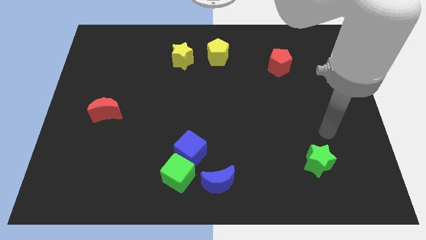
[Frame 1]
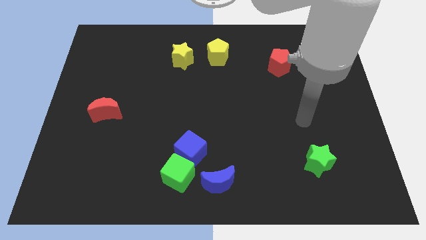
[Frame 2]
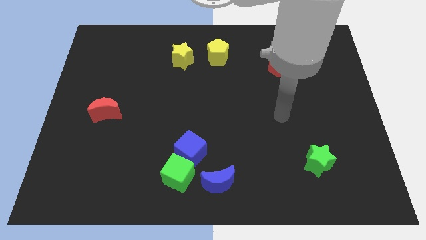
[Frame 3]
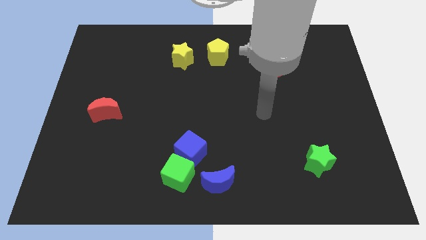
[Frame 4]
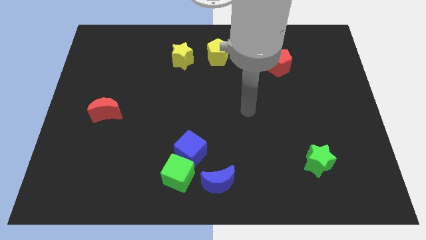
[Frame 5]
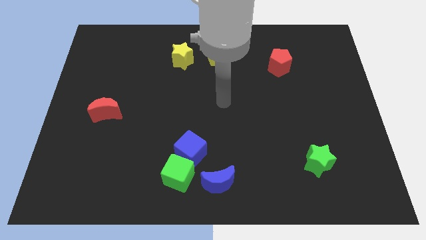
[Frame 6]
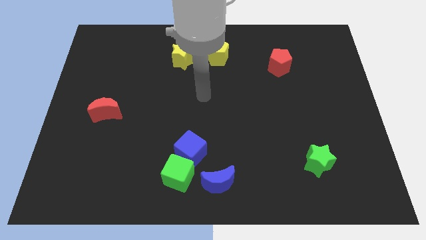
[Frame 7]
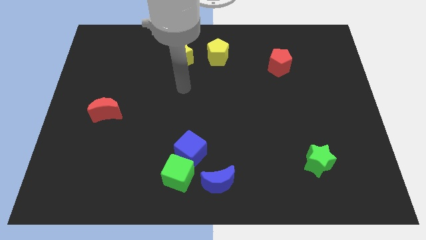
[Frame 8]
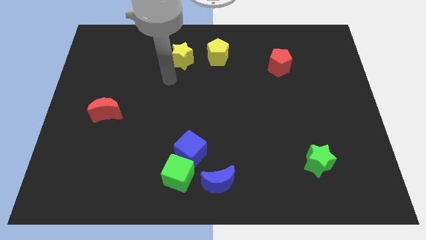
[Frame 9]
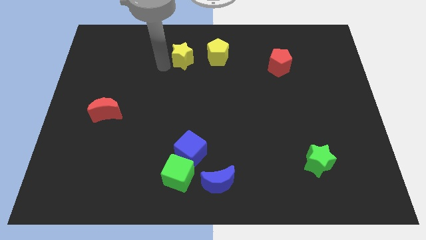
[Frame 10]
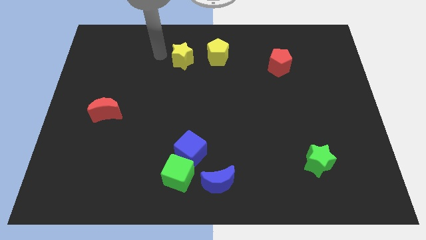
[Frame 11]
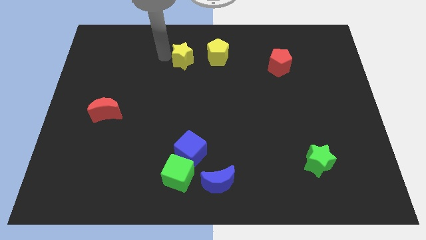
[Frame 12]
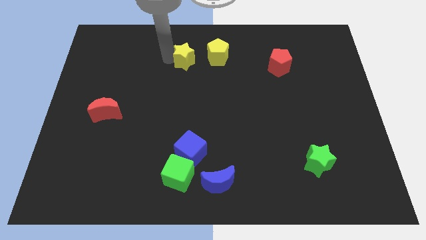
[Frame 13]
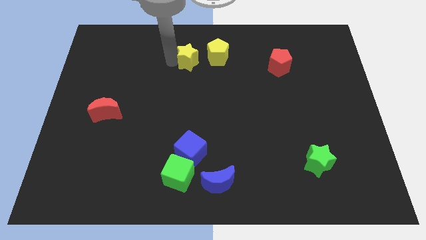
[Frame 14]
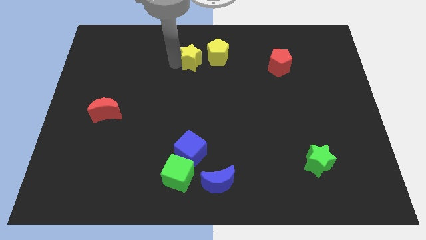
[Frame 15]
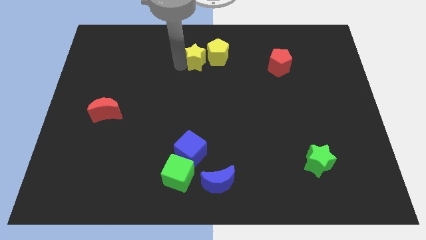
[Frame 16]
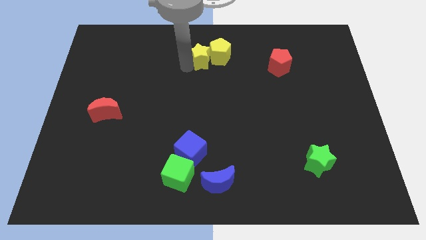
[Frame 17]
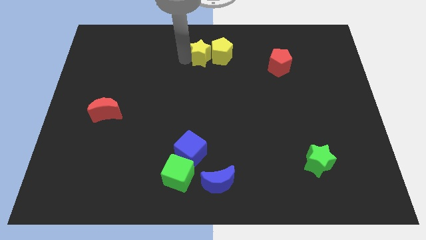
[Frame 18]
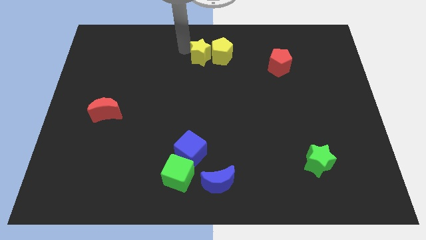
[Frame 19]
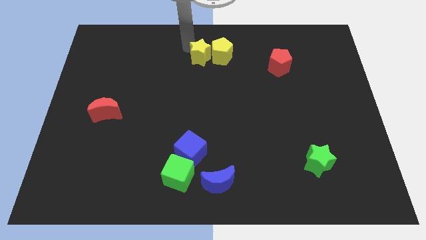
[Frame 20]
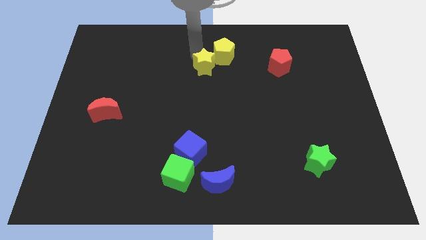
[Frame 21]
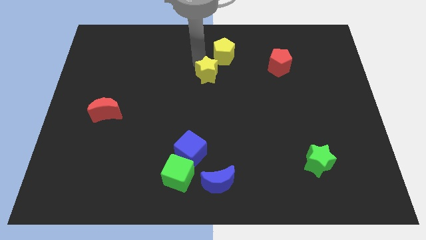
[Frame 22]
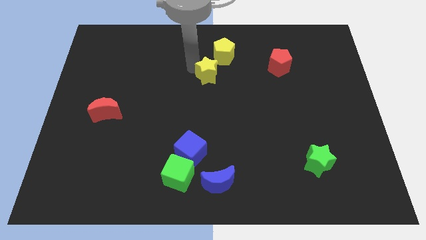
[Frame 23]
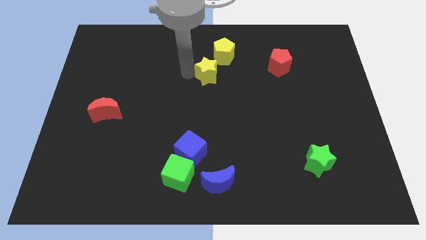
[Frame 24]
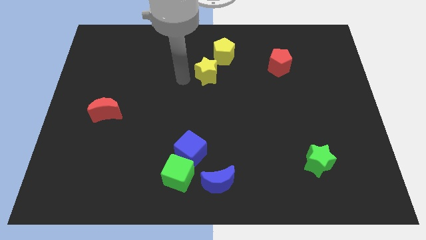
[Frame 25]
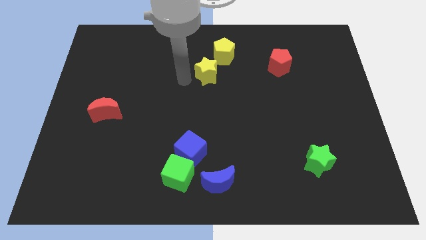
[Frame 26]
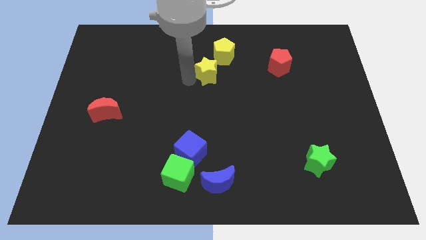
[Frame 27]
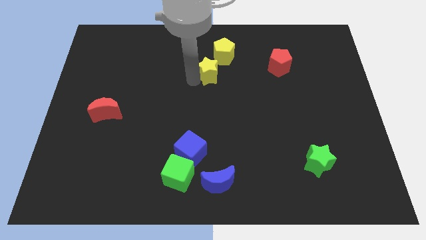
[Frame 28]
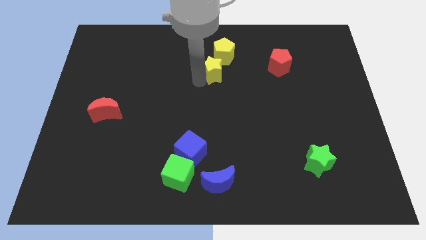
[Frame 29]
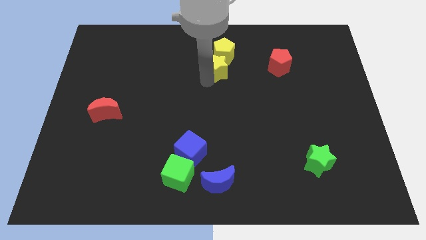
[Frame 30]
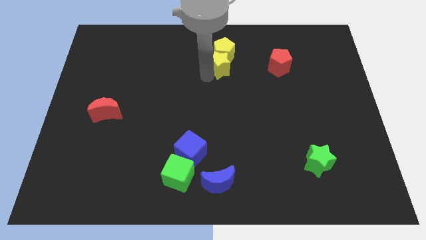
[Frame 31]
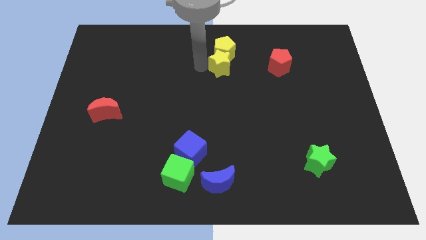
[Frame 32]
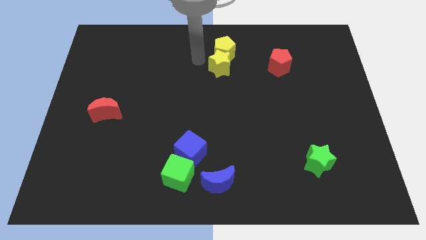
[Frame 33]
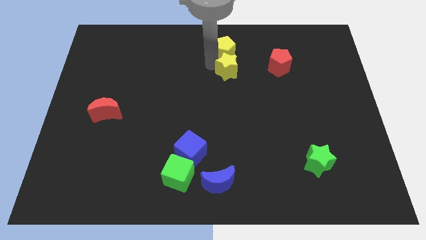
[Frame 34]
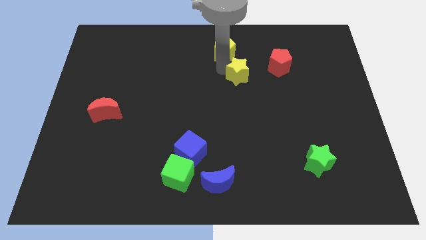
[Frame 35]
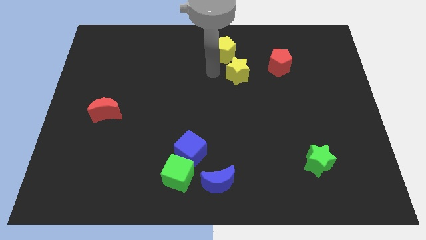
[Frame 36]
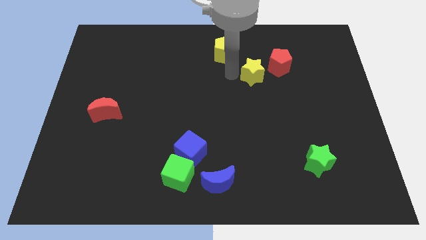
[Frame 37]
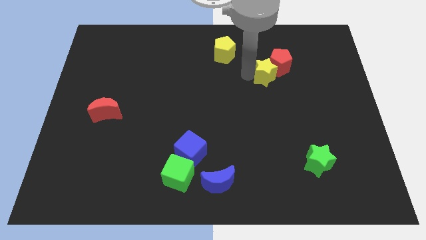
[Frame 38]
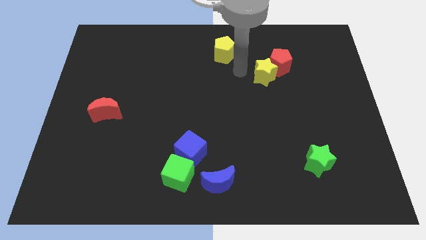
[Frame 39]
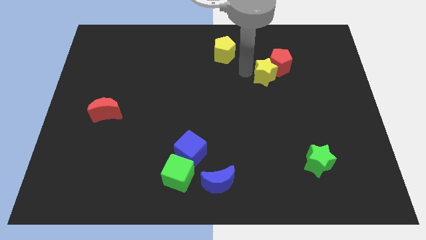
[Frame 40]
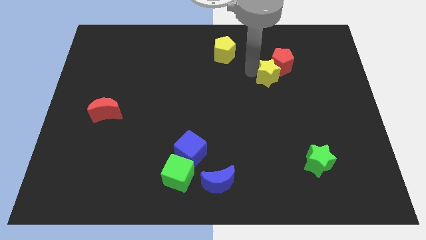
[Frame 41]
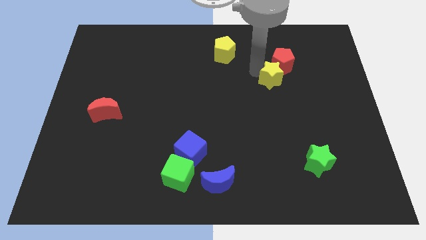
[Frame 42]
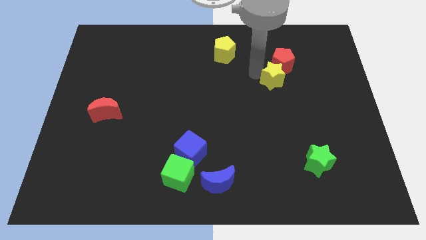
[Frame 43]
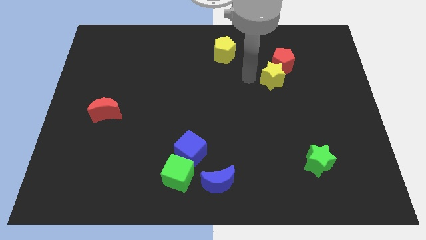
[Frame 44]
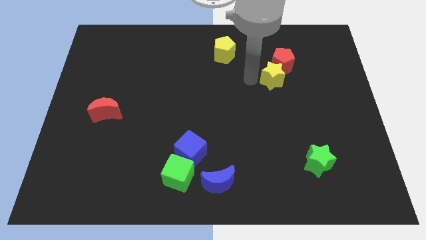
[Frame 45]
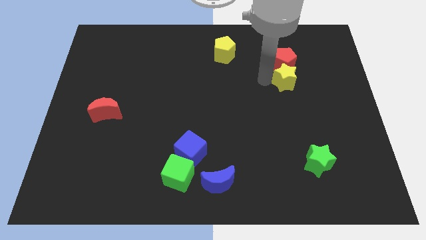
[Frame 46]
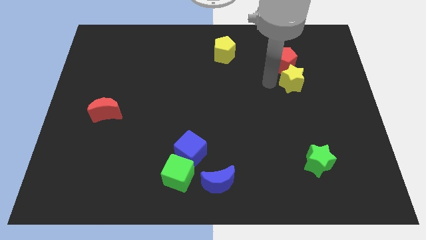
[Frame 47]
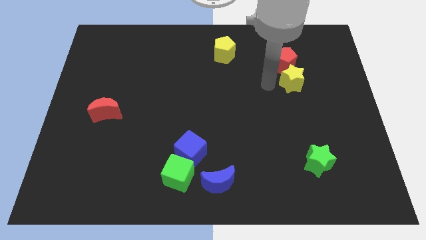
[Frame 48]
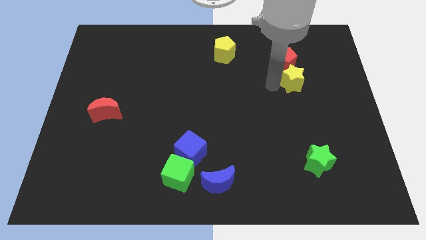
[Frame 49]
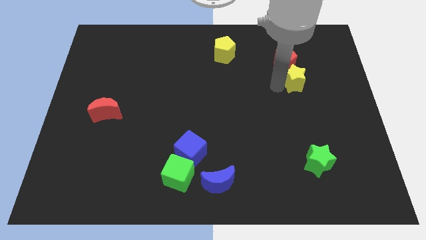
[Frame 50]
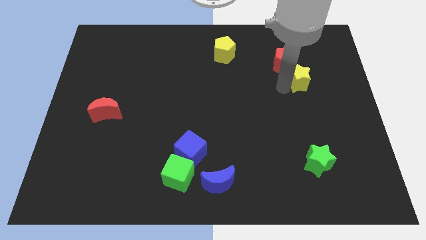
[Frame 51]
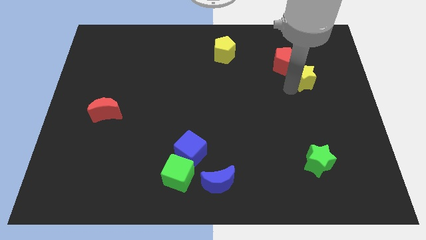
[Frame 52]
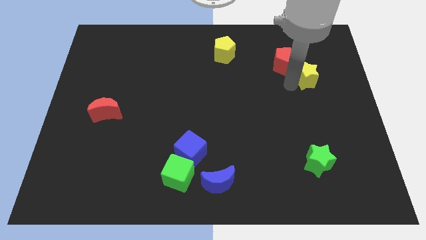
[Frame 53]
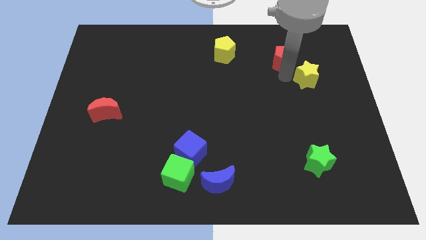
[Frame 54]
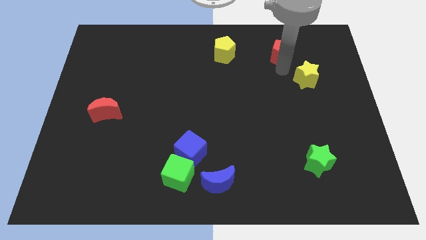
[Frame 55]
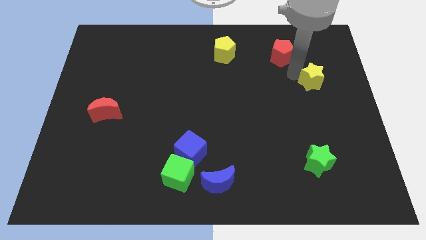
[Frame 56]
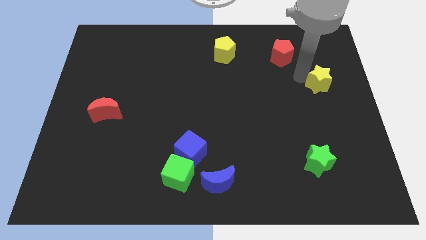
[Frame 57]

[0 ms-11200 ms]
put the yellow star to the right side

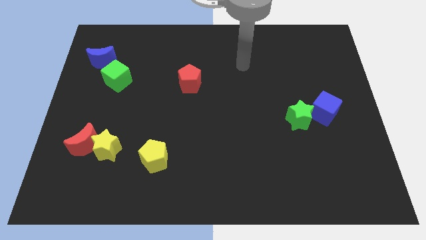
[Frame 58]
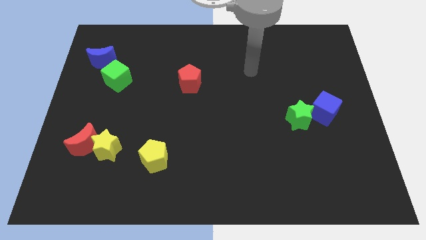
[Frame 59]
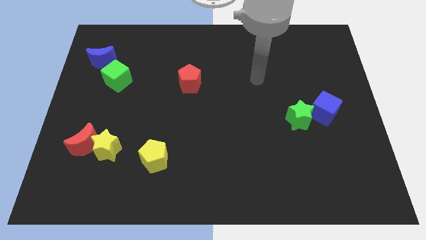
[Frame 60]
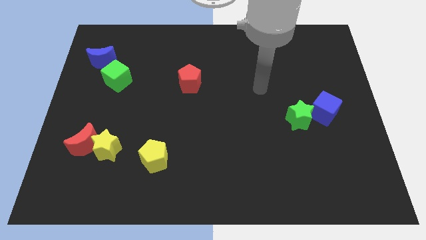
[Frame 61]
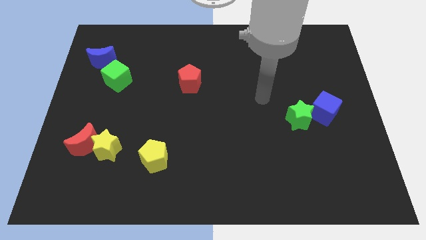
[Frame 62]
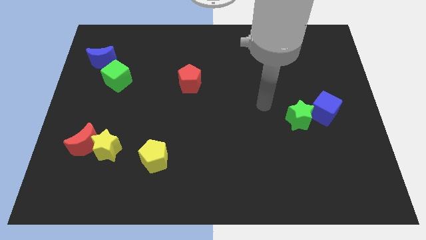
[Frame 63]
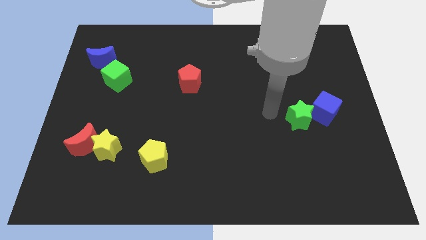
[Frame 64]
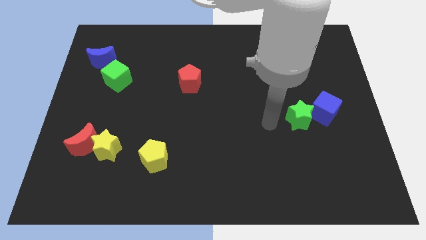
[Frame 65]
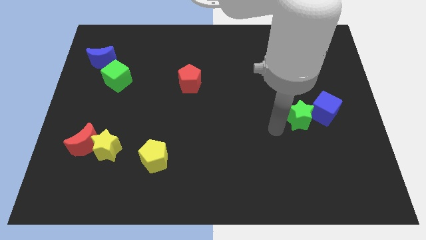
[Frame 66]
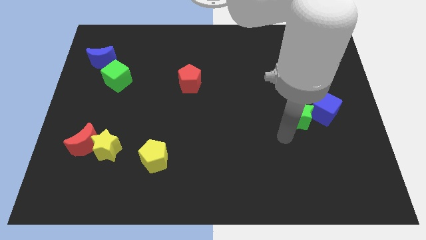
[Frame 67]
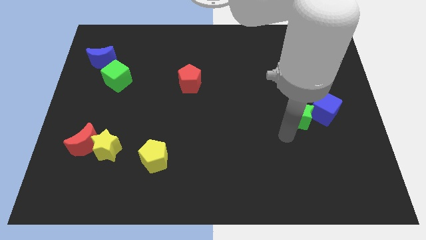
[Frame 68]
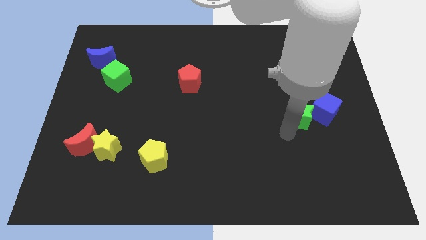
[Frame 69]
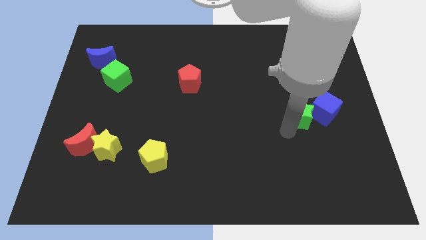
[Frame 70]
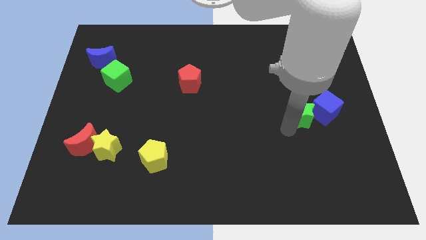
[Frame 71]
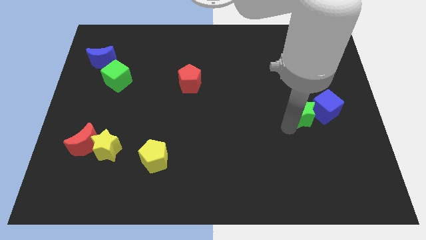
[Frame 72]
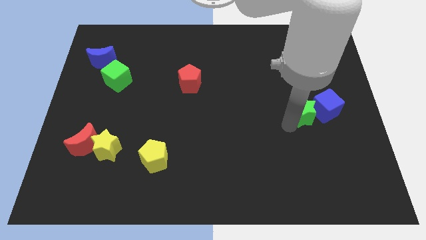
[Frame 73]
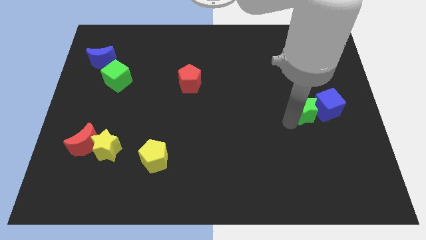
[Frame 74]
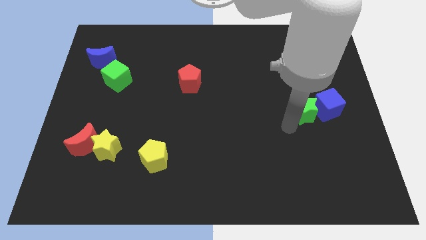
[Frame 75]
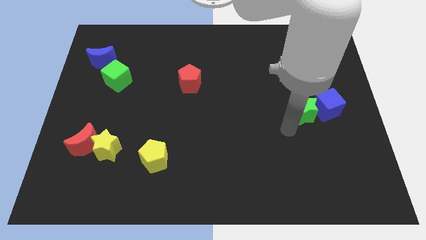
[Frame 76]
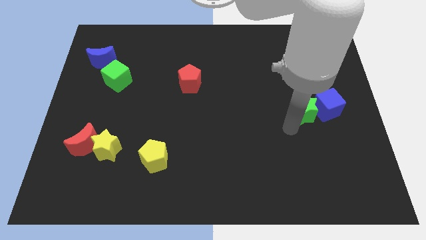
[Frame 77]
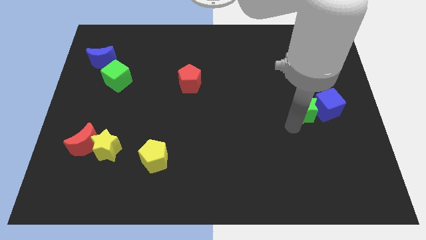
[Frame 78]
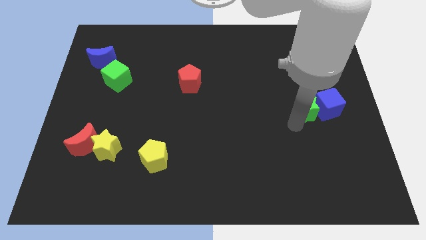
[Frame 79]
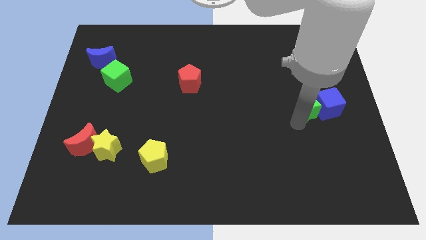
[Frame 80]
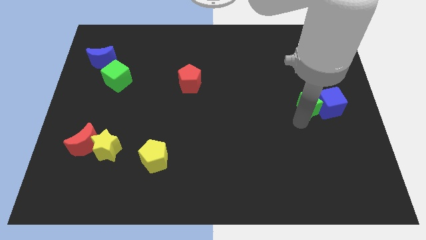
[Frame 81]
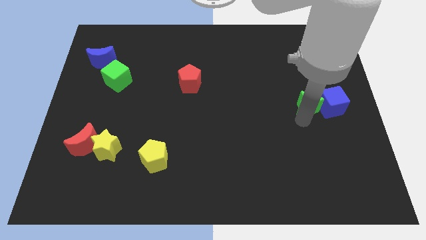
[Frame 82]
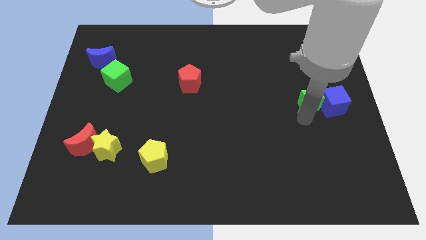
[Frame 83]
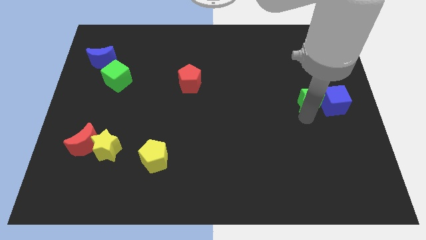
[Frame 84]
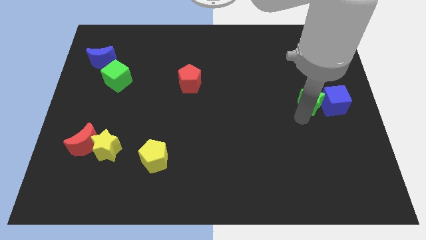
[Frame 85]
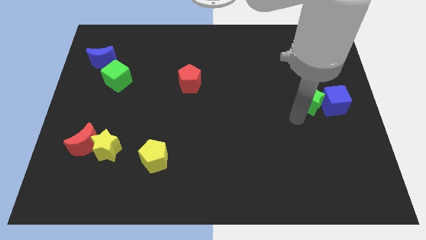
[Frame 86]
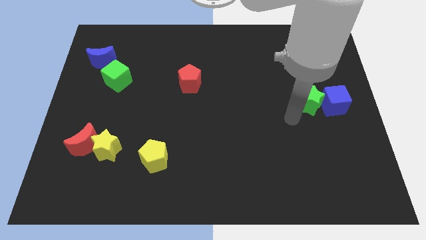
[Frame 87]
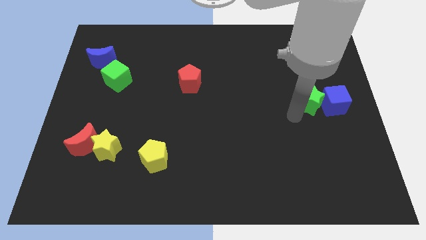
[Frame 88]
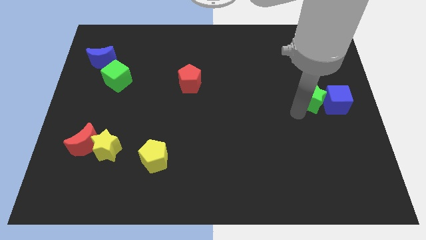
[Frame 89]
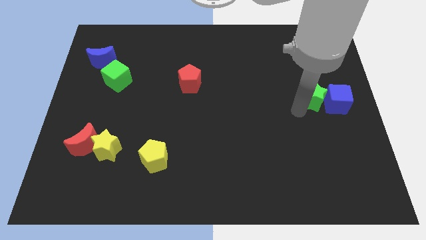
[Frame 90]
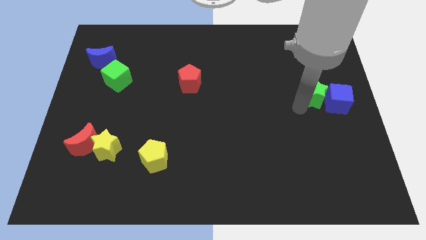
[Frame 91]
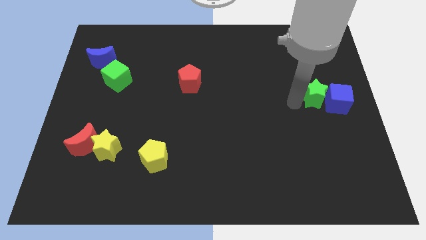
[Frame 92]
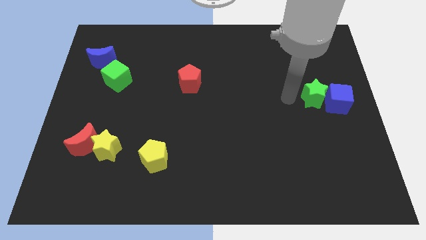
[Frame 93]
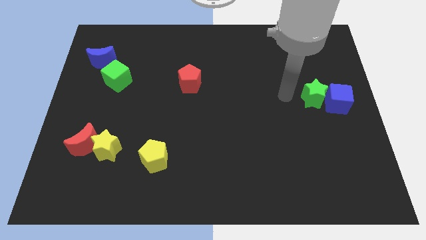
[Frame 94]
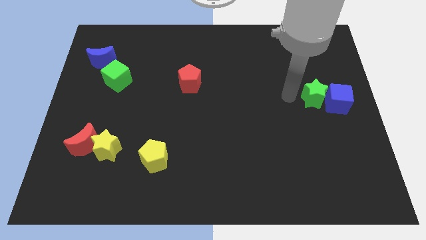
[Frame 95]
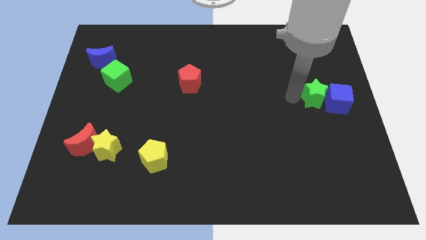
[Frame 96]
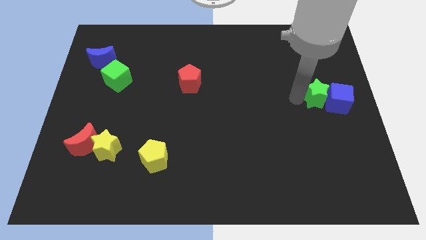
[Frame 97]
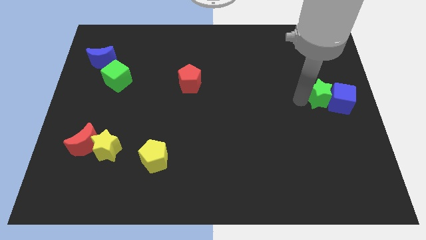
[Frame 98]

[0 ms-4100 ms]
put the green star to the center right
